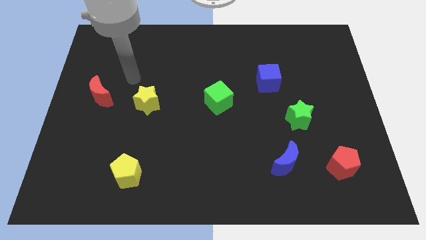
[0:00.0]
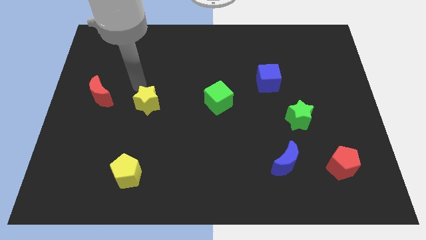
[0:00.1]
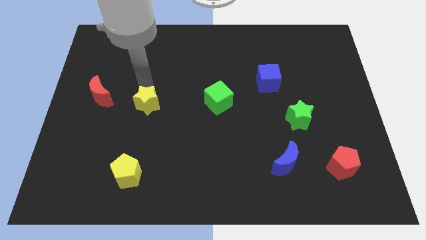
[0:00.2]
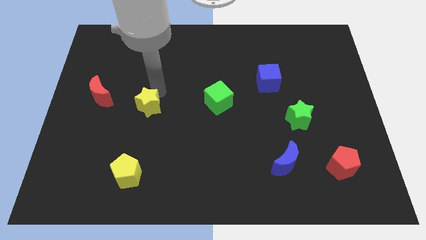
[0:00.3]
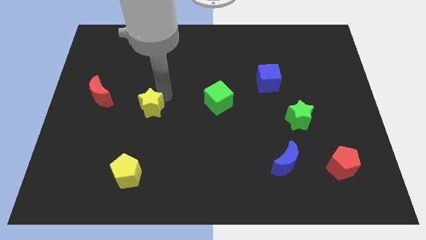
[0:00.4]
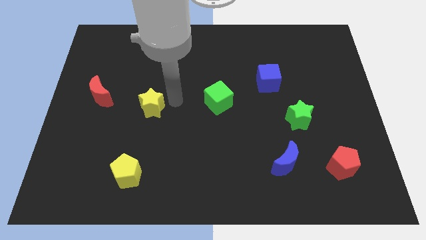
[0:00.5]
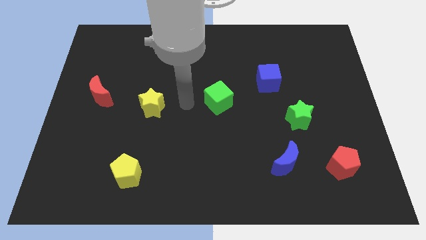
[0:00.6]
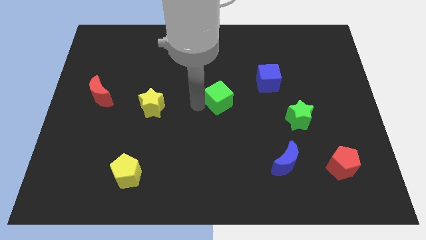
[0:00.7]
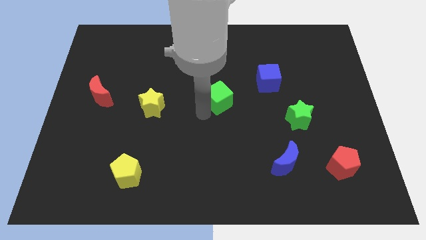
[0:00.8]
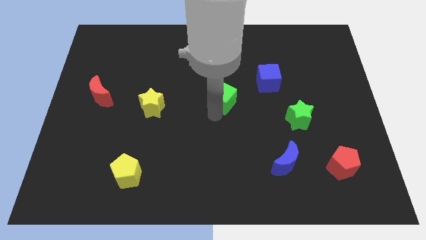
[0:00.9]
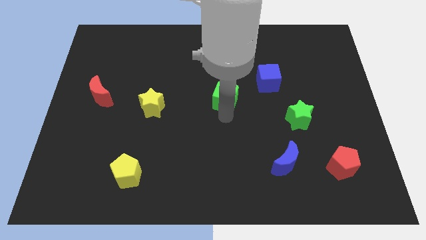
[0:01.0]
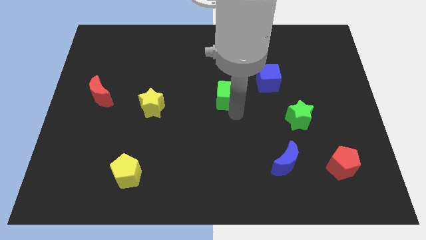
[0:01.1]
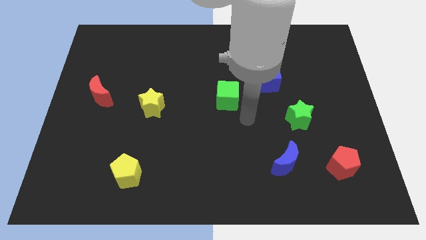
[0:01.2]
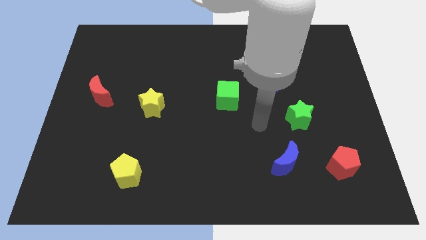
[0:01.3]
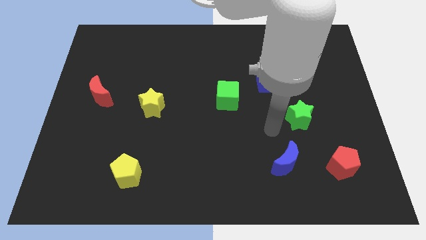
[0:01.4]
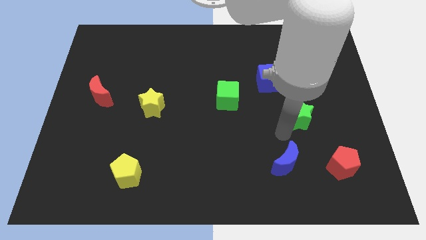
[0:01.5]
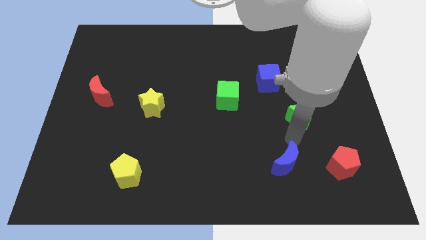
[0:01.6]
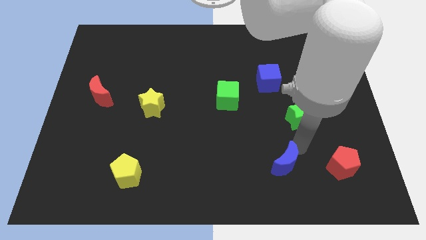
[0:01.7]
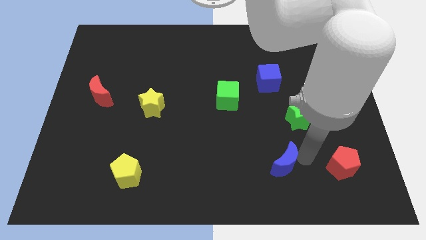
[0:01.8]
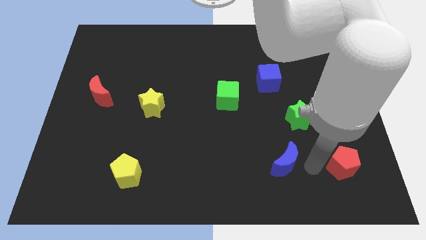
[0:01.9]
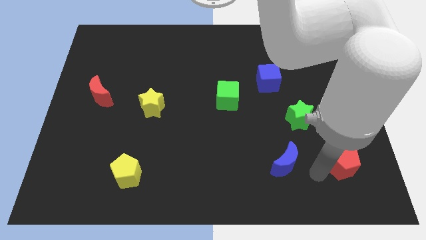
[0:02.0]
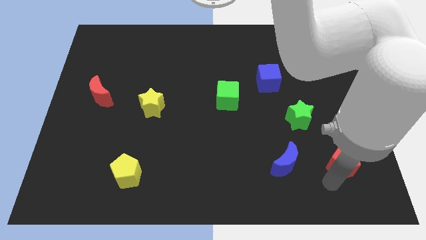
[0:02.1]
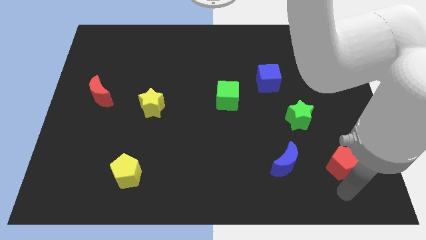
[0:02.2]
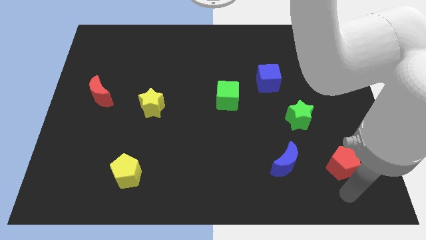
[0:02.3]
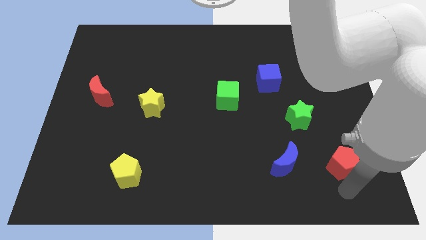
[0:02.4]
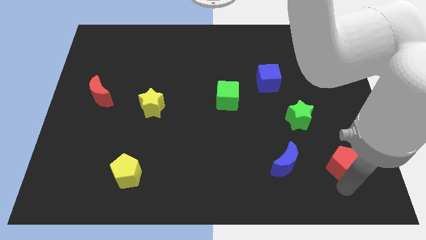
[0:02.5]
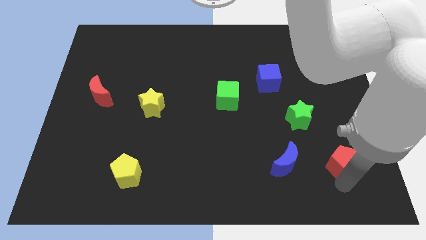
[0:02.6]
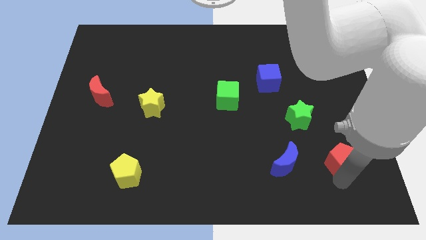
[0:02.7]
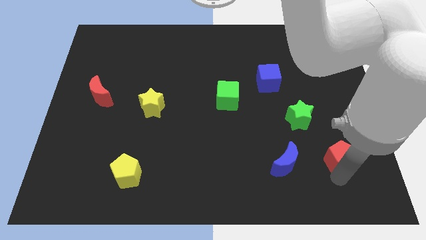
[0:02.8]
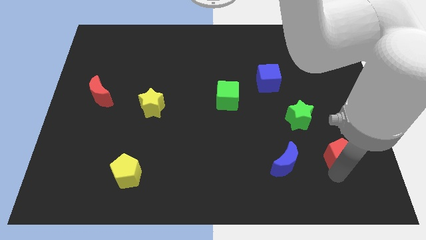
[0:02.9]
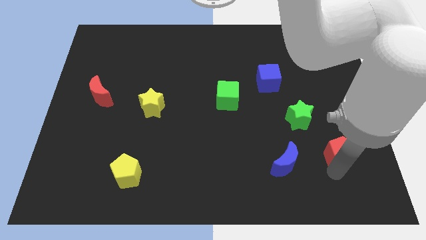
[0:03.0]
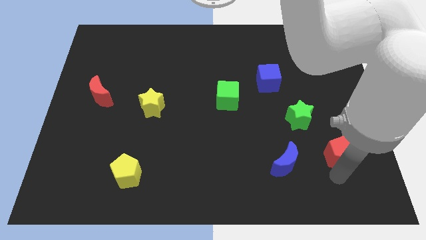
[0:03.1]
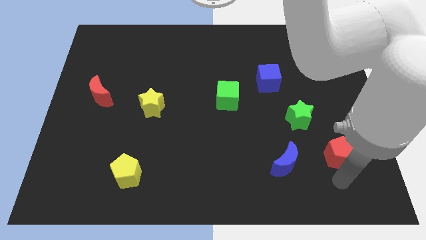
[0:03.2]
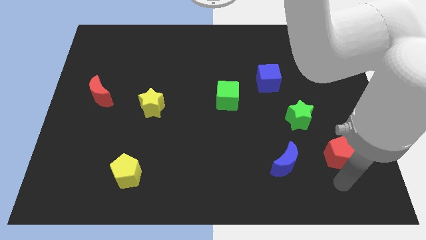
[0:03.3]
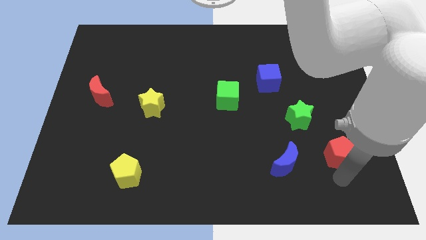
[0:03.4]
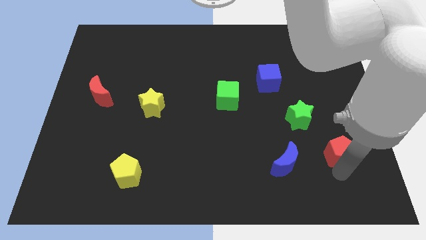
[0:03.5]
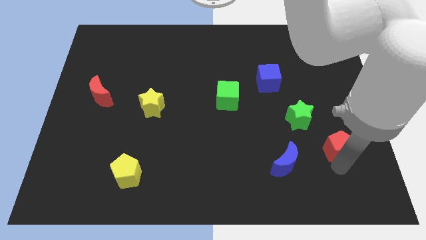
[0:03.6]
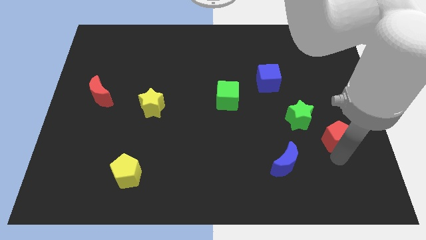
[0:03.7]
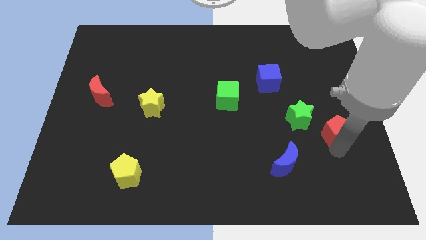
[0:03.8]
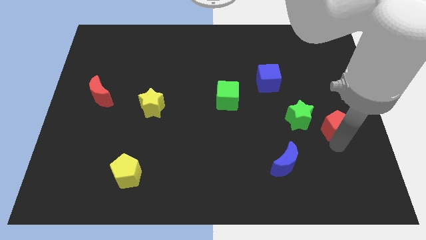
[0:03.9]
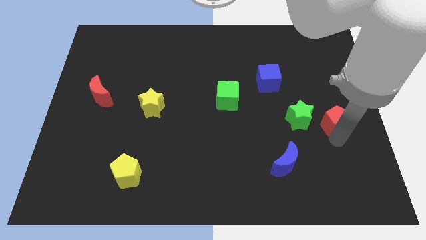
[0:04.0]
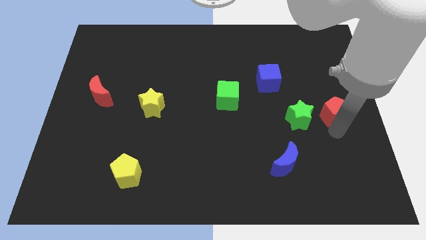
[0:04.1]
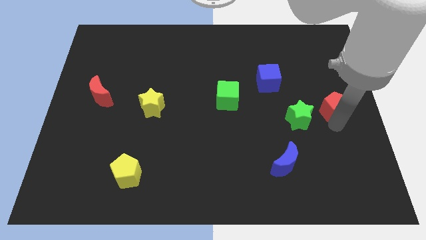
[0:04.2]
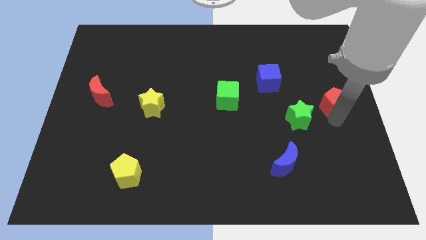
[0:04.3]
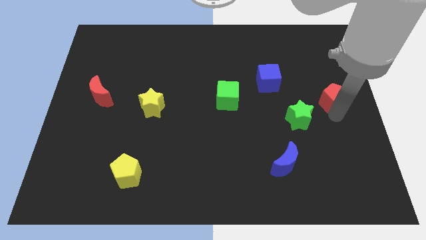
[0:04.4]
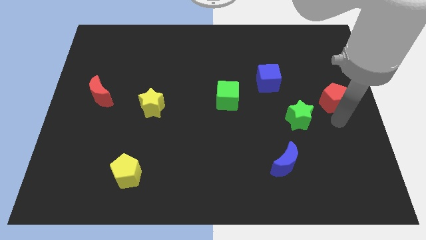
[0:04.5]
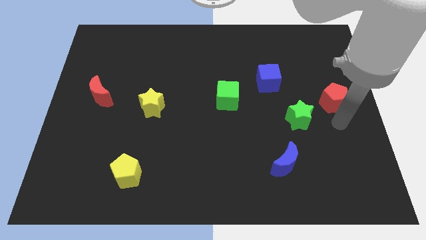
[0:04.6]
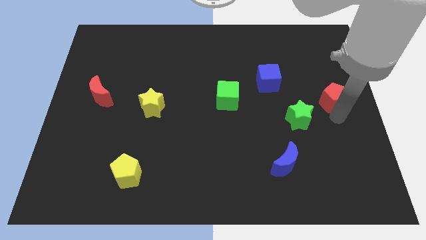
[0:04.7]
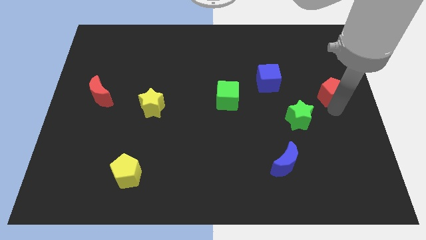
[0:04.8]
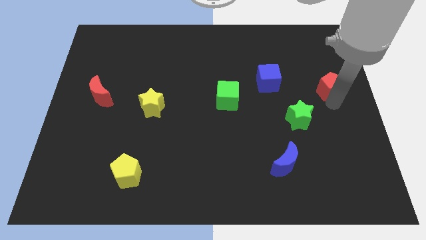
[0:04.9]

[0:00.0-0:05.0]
slide the red pentagon up

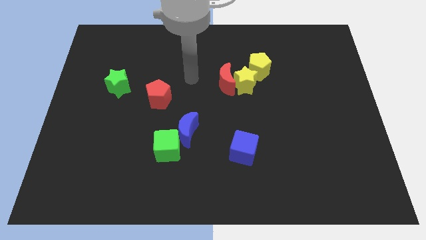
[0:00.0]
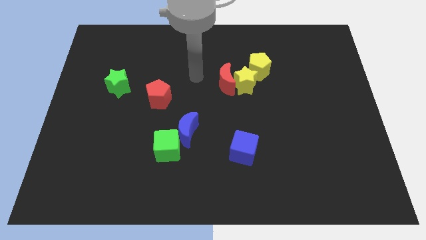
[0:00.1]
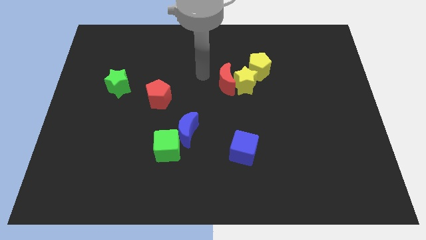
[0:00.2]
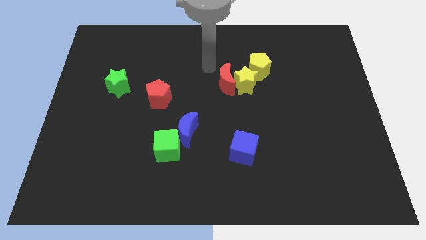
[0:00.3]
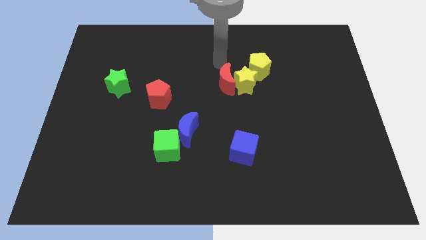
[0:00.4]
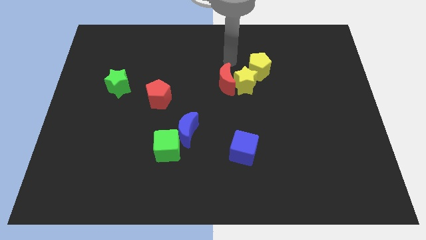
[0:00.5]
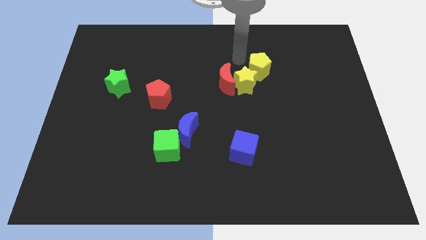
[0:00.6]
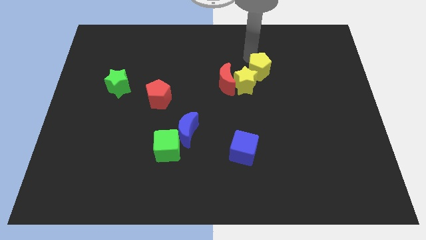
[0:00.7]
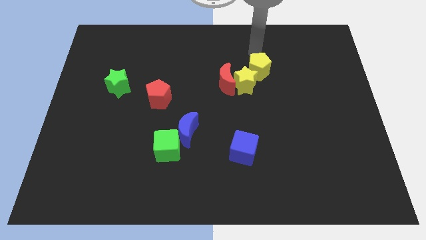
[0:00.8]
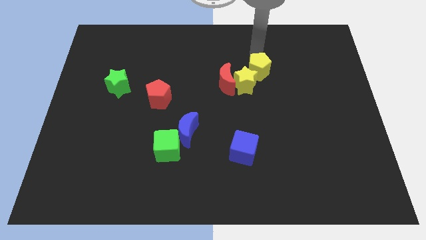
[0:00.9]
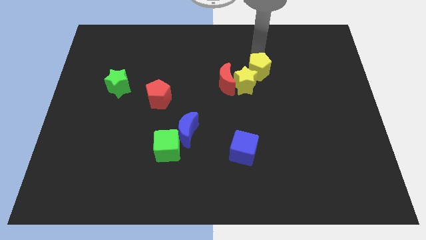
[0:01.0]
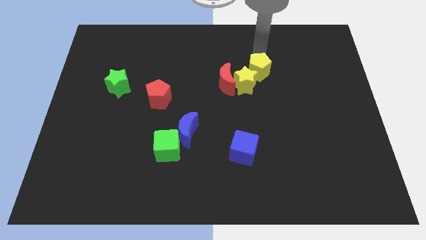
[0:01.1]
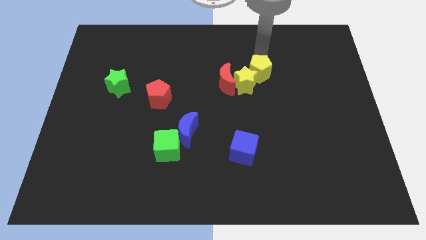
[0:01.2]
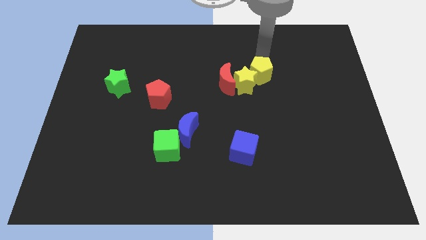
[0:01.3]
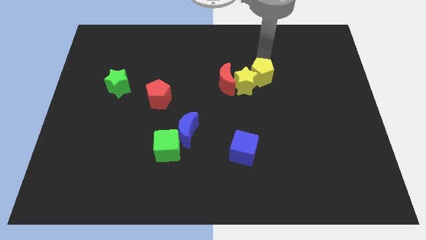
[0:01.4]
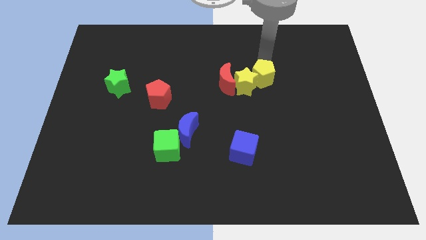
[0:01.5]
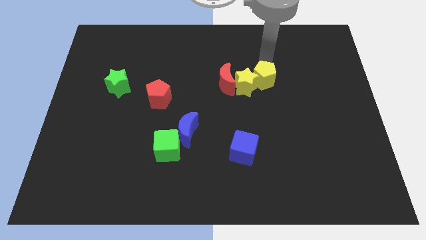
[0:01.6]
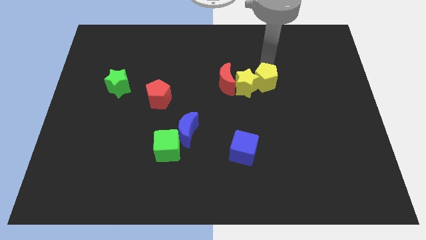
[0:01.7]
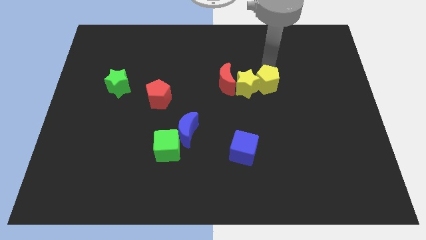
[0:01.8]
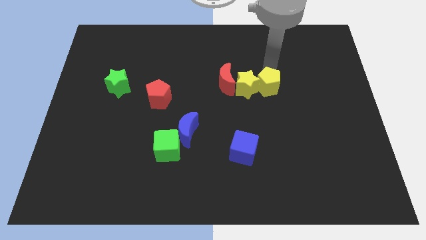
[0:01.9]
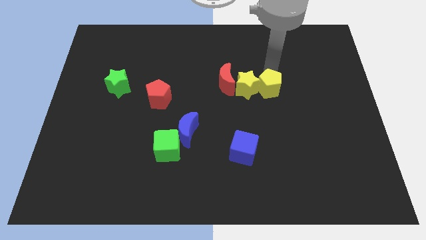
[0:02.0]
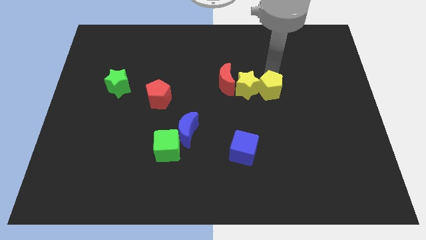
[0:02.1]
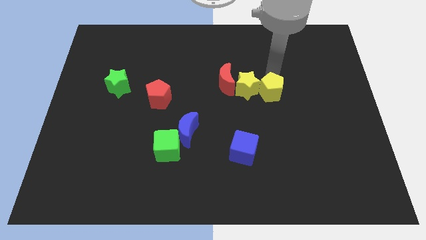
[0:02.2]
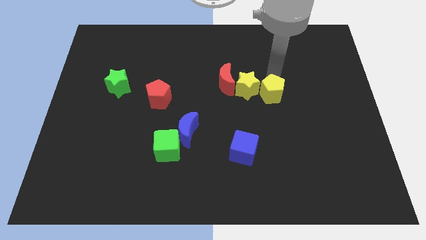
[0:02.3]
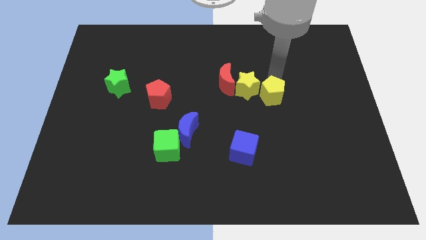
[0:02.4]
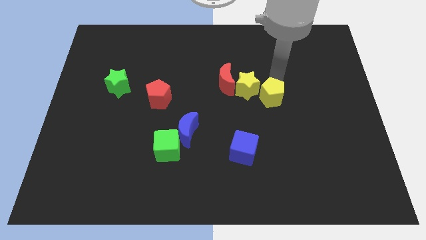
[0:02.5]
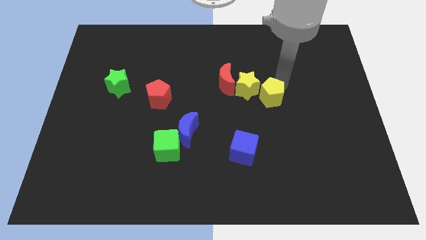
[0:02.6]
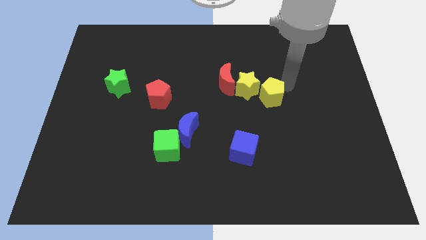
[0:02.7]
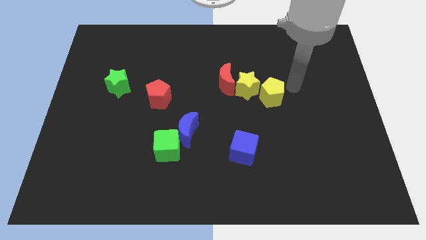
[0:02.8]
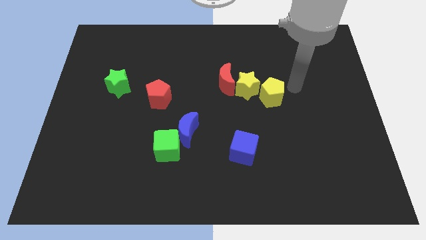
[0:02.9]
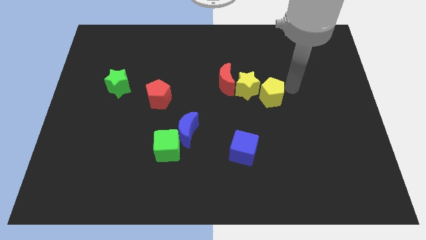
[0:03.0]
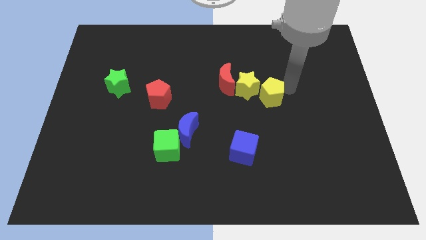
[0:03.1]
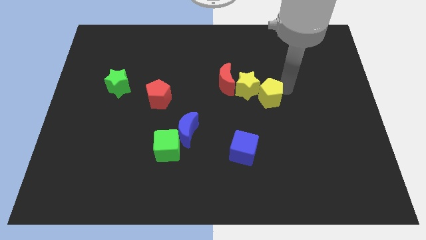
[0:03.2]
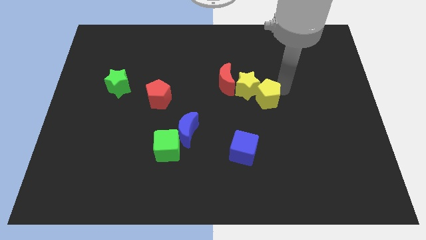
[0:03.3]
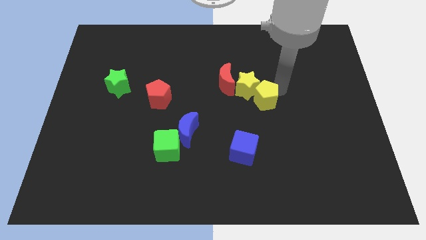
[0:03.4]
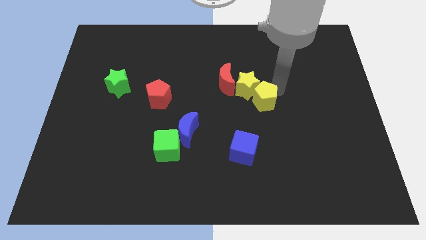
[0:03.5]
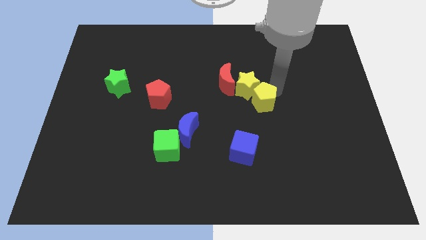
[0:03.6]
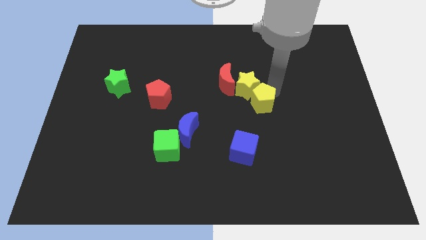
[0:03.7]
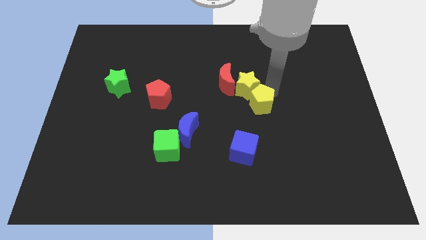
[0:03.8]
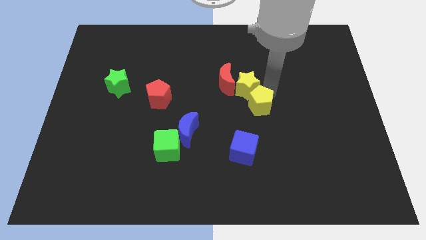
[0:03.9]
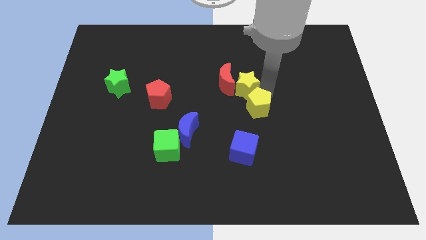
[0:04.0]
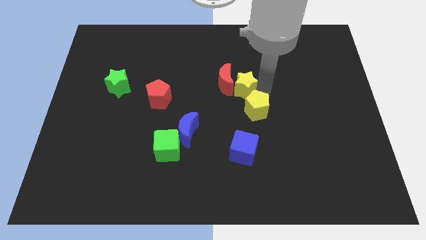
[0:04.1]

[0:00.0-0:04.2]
push the yellow pentagon down and to the left diagonally a bit
